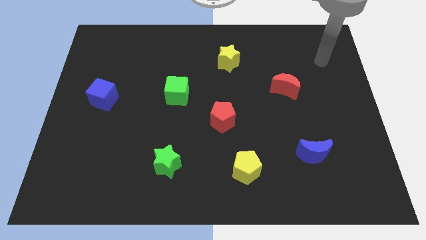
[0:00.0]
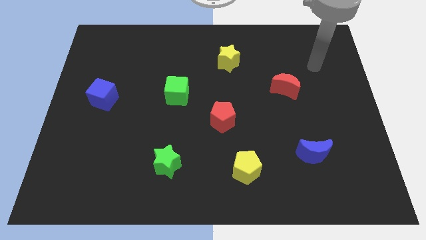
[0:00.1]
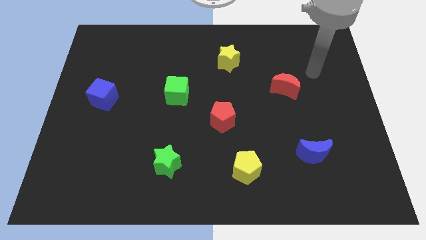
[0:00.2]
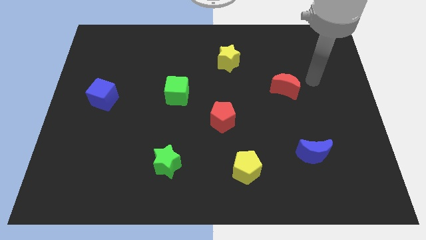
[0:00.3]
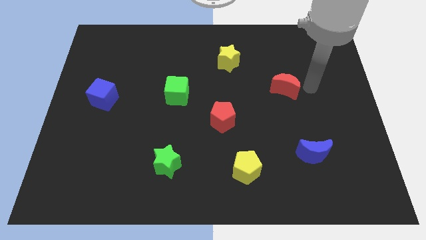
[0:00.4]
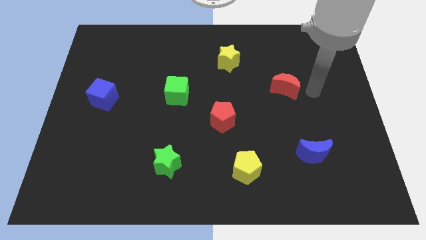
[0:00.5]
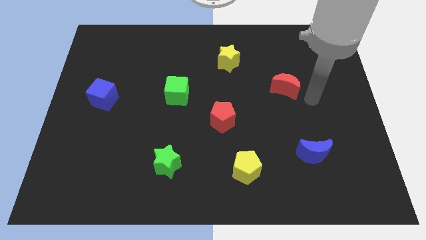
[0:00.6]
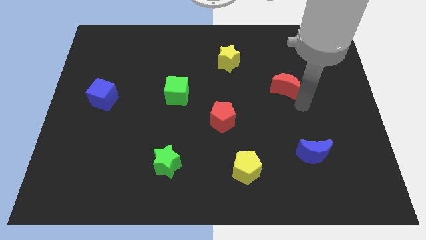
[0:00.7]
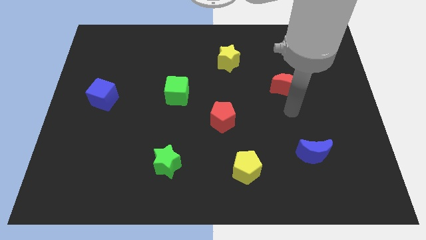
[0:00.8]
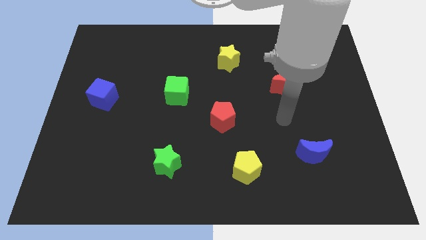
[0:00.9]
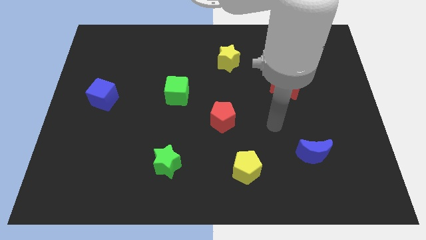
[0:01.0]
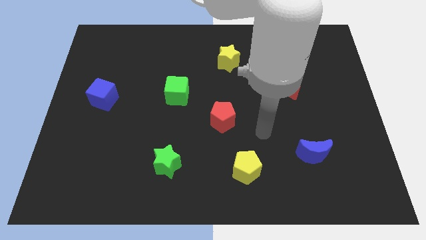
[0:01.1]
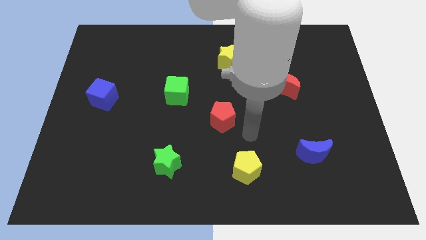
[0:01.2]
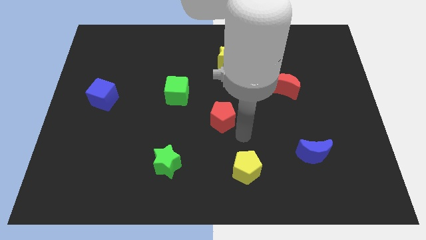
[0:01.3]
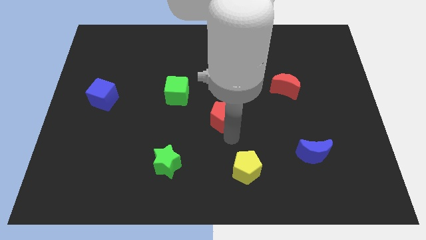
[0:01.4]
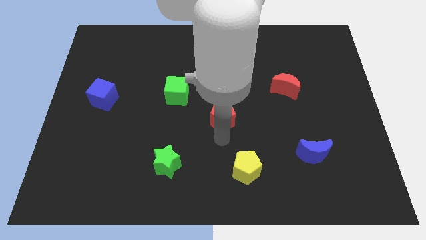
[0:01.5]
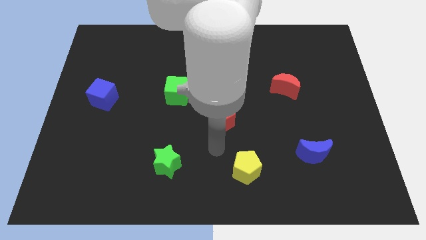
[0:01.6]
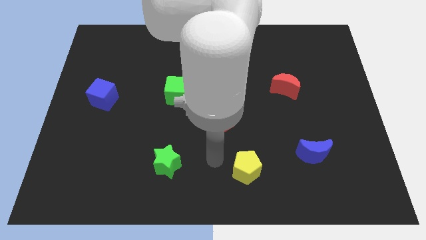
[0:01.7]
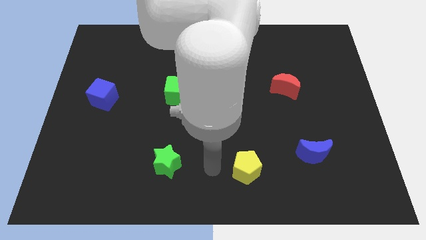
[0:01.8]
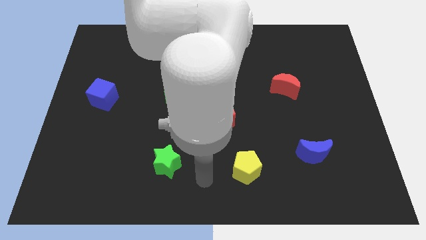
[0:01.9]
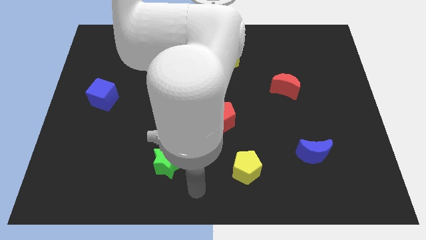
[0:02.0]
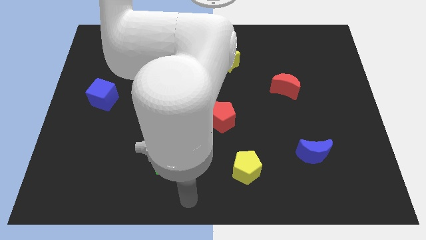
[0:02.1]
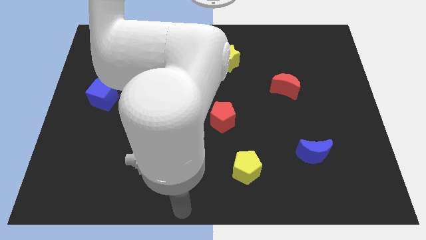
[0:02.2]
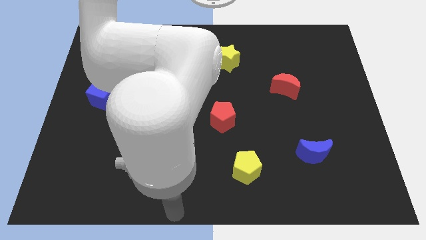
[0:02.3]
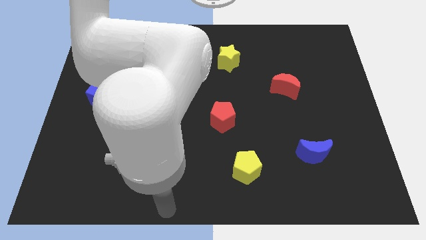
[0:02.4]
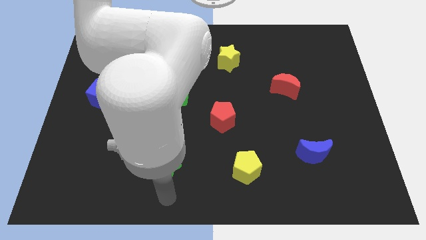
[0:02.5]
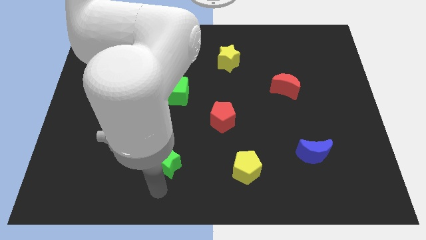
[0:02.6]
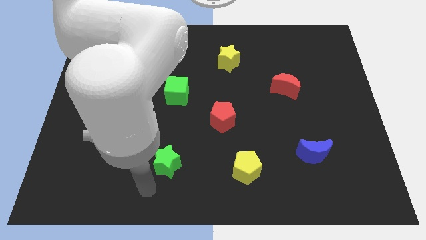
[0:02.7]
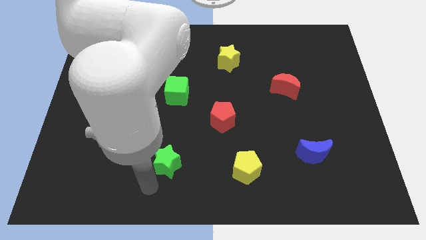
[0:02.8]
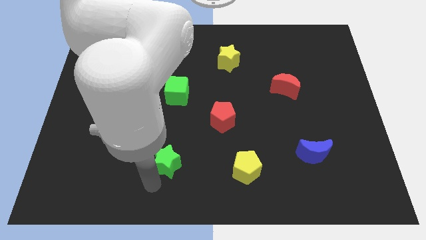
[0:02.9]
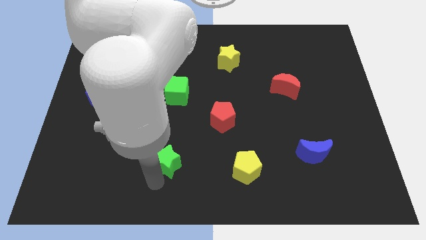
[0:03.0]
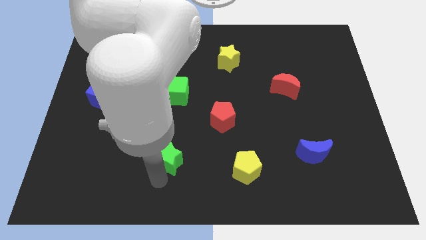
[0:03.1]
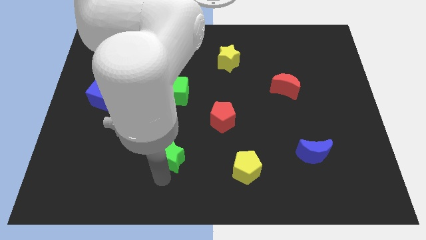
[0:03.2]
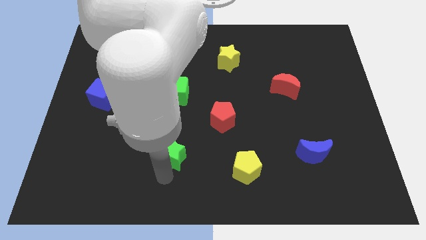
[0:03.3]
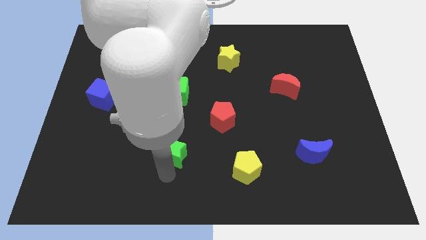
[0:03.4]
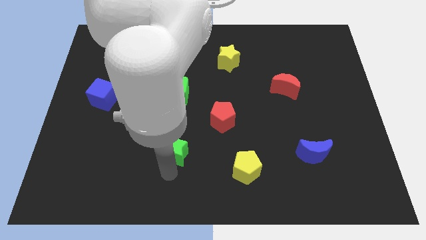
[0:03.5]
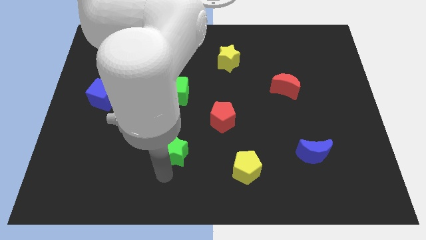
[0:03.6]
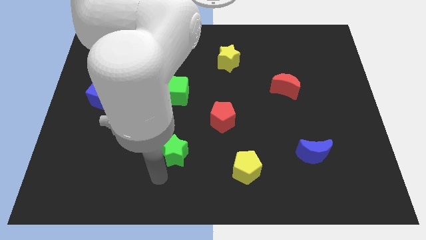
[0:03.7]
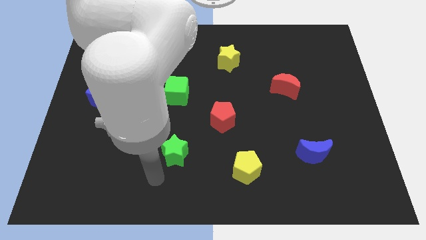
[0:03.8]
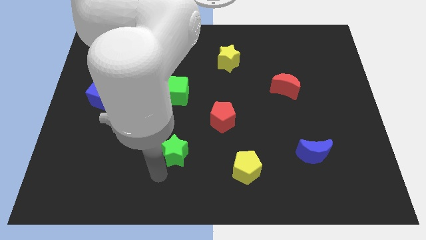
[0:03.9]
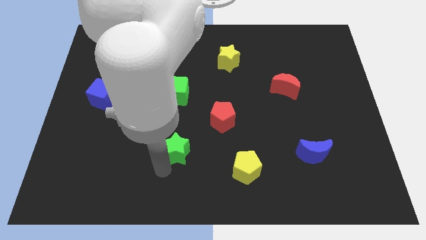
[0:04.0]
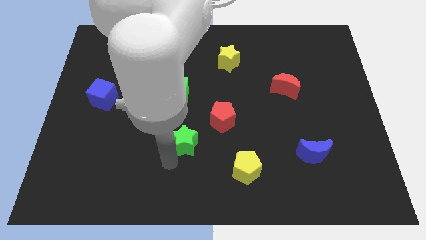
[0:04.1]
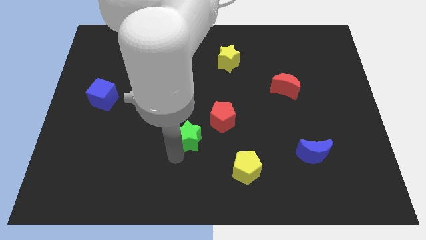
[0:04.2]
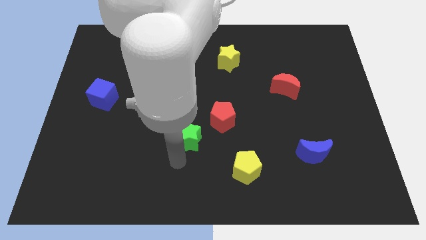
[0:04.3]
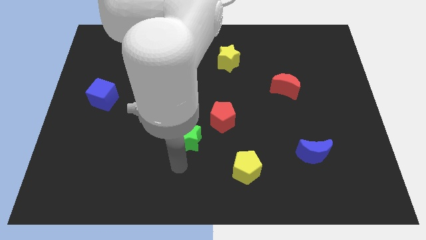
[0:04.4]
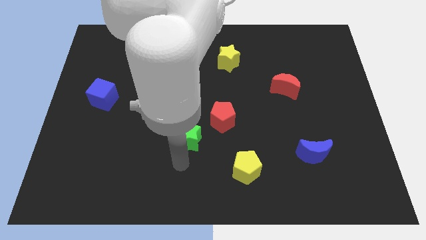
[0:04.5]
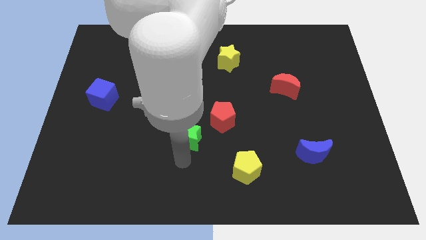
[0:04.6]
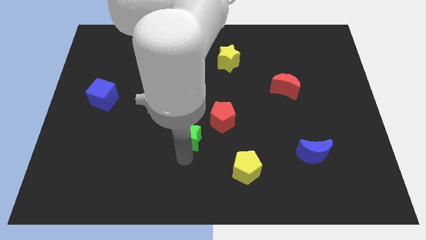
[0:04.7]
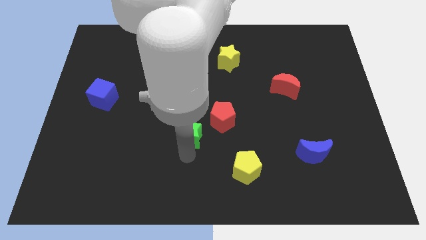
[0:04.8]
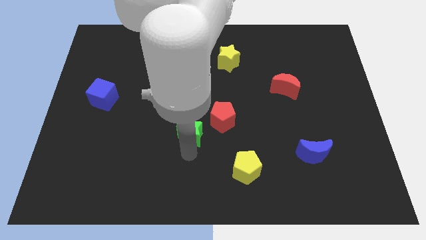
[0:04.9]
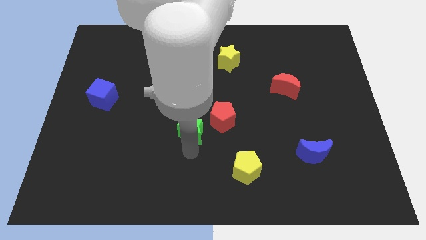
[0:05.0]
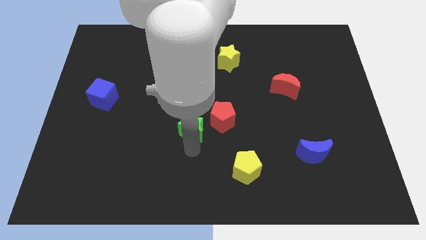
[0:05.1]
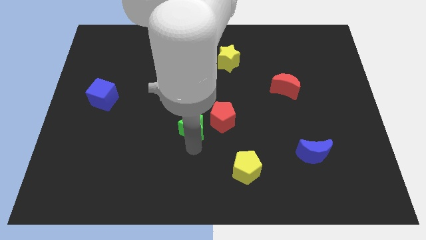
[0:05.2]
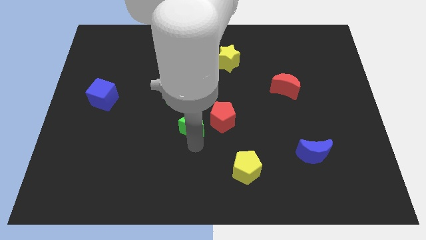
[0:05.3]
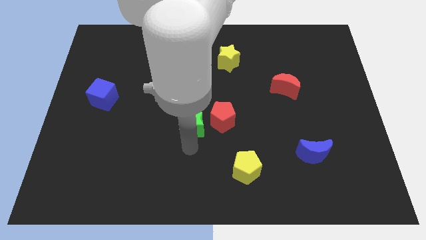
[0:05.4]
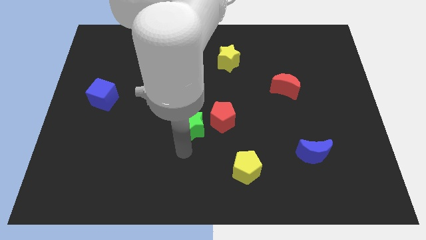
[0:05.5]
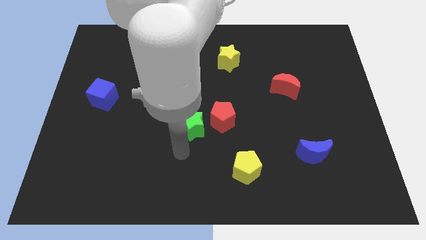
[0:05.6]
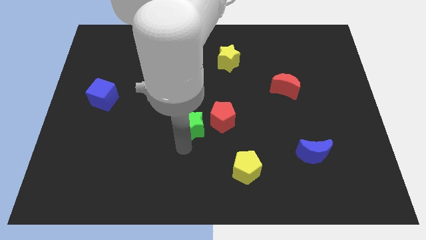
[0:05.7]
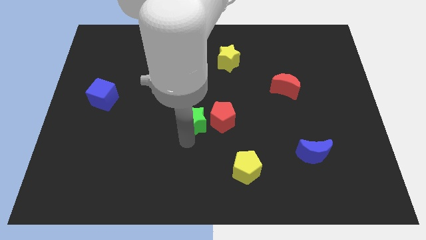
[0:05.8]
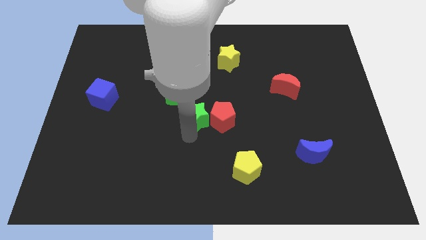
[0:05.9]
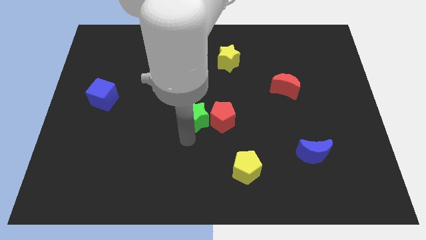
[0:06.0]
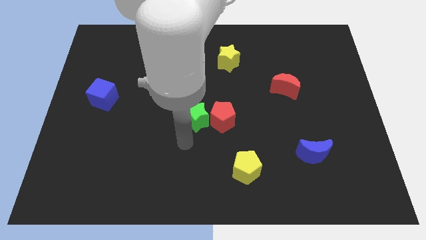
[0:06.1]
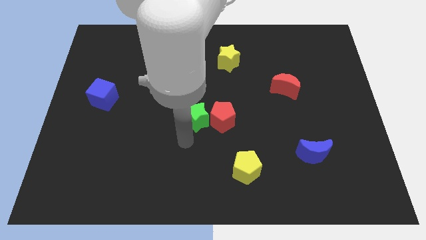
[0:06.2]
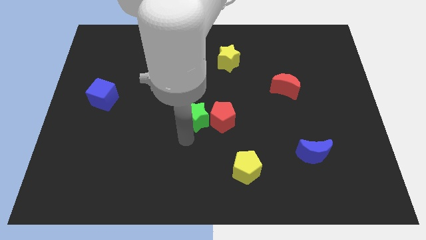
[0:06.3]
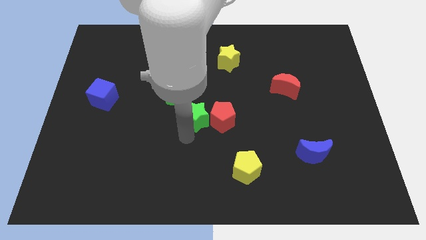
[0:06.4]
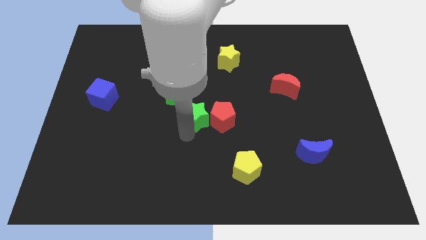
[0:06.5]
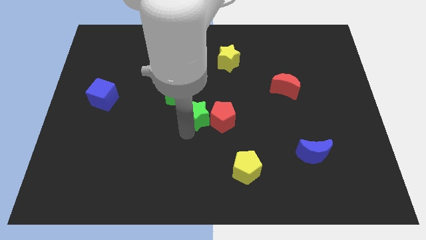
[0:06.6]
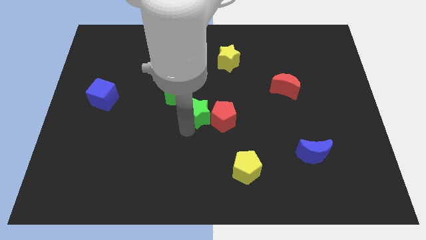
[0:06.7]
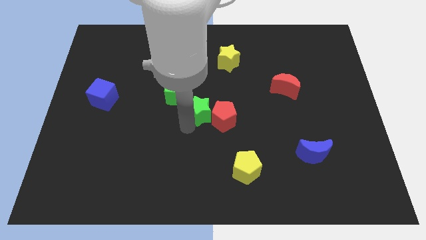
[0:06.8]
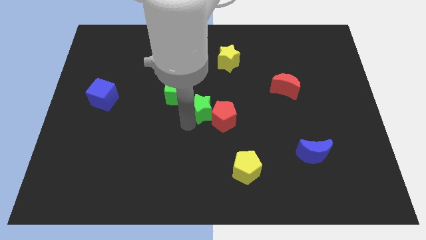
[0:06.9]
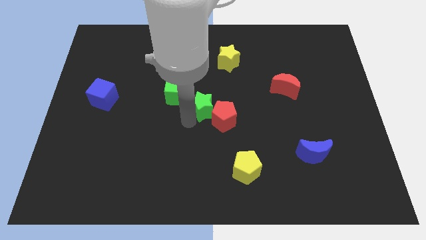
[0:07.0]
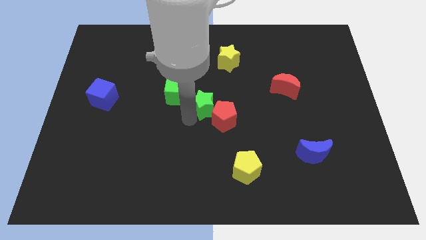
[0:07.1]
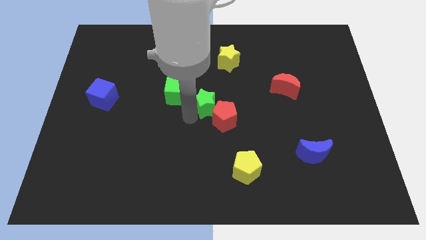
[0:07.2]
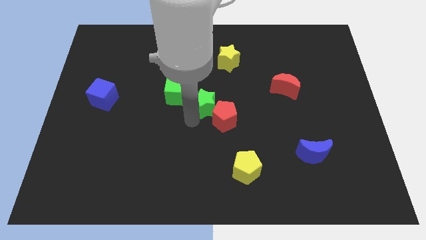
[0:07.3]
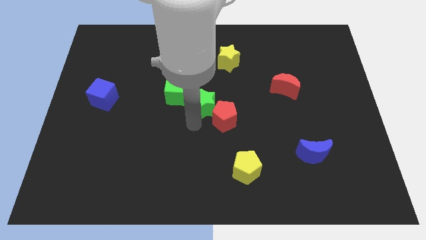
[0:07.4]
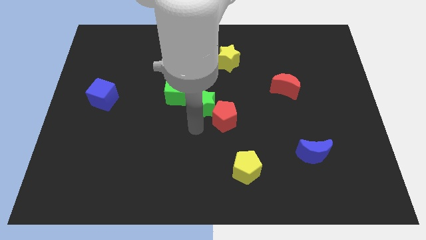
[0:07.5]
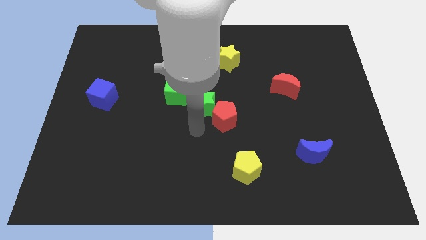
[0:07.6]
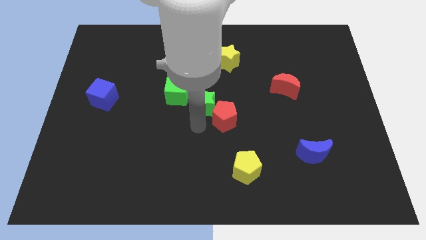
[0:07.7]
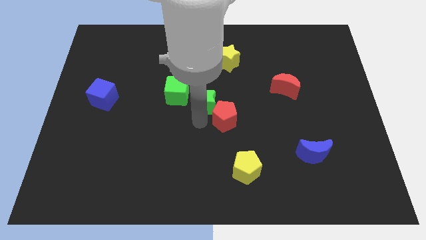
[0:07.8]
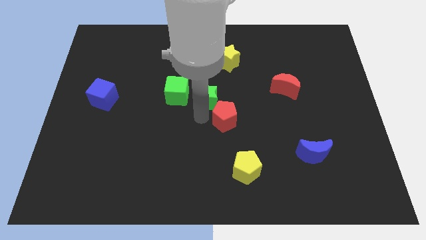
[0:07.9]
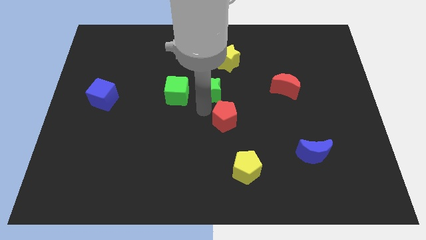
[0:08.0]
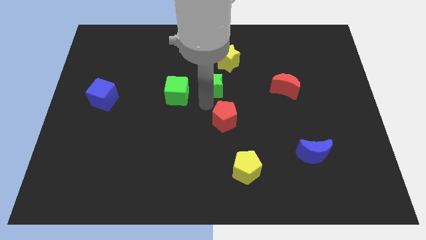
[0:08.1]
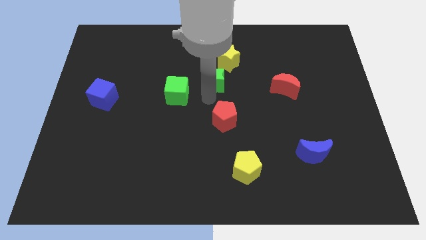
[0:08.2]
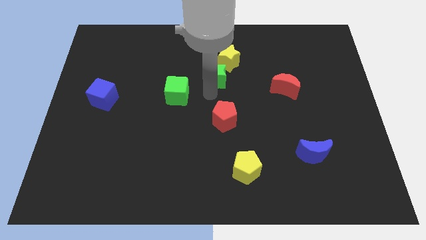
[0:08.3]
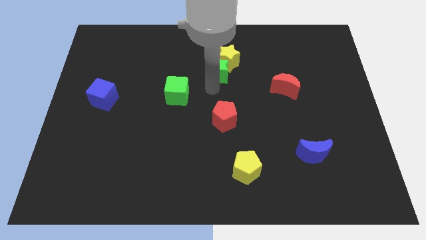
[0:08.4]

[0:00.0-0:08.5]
put the green star close to the yellow star
